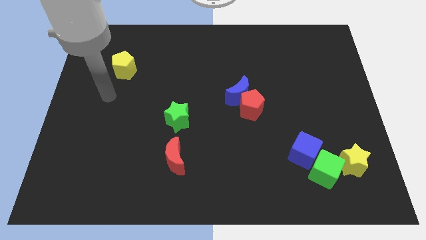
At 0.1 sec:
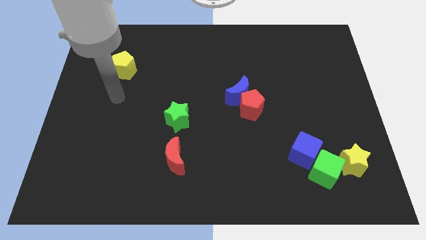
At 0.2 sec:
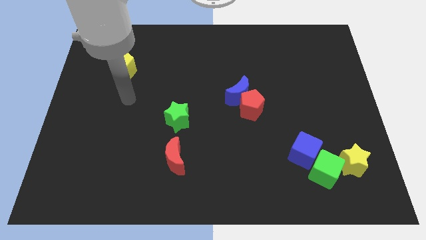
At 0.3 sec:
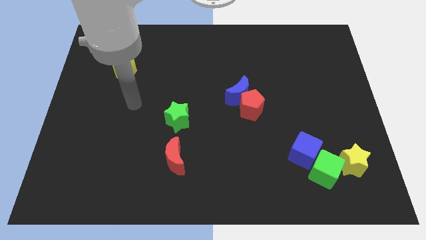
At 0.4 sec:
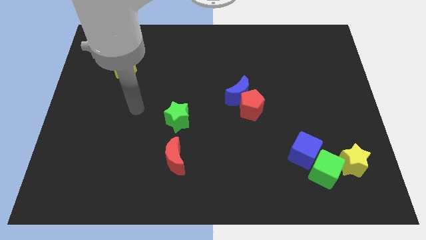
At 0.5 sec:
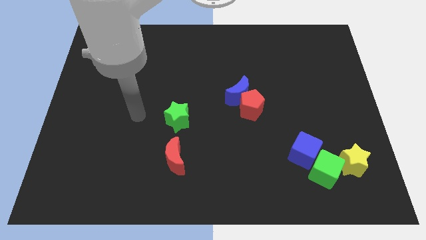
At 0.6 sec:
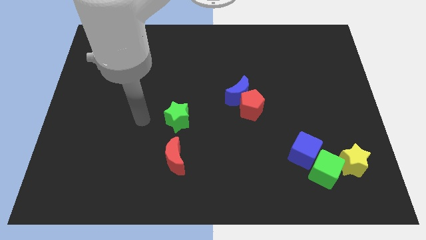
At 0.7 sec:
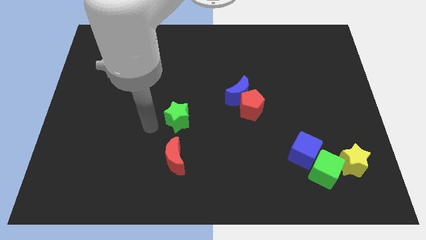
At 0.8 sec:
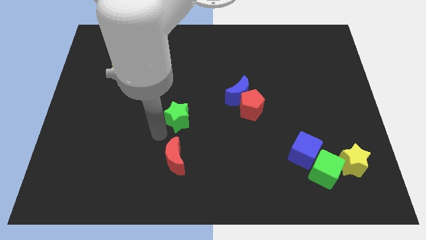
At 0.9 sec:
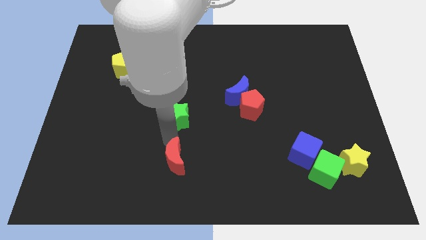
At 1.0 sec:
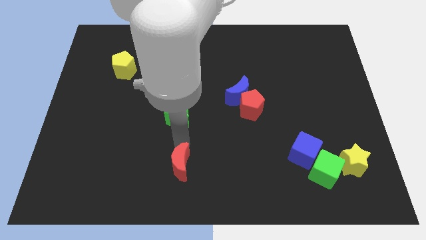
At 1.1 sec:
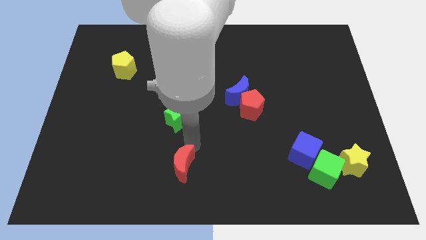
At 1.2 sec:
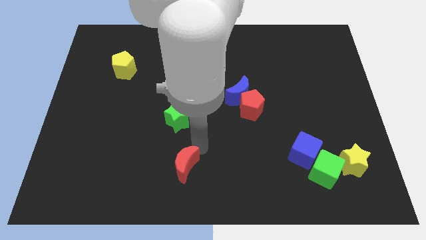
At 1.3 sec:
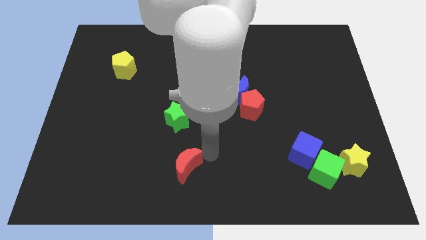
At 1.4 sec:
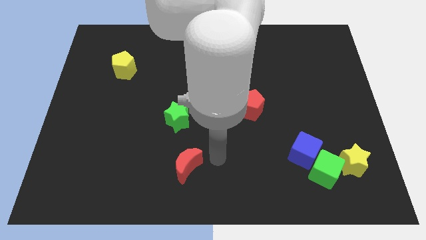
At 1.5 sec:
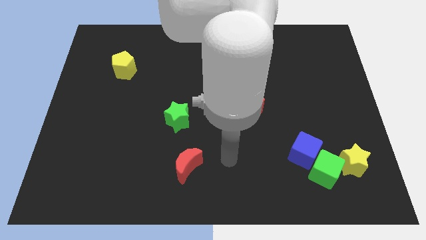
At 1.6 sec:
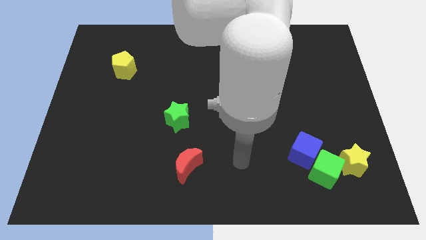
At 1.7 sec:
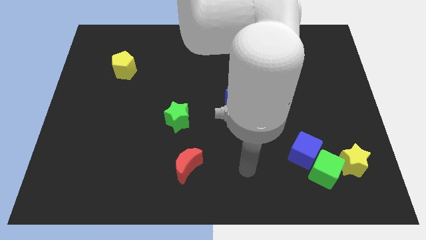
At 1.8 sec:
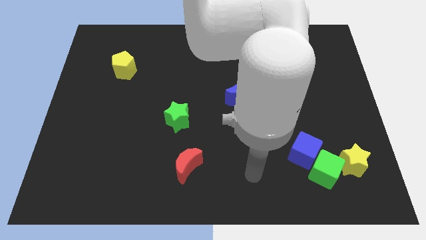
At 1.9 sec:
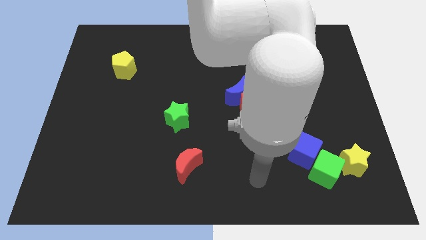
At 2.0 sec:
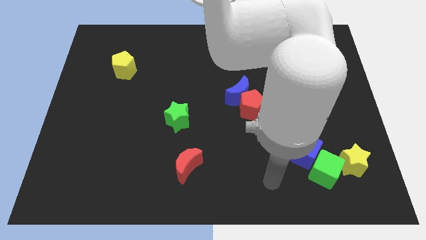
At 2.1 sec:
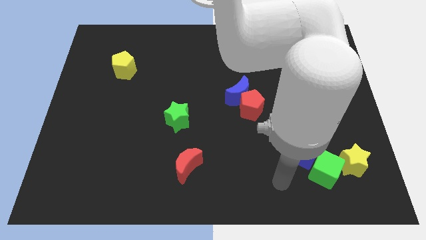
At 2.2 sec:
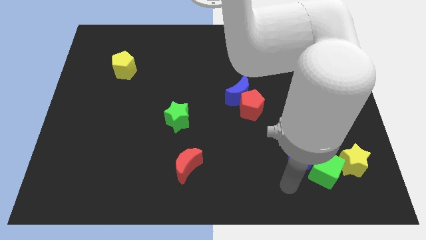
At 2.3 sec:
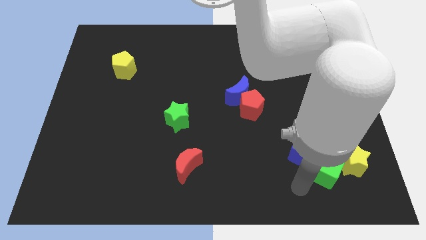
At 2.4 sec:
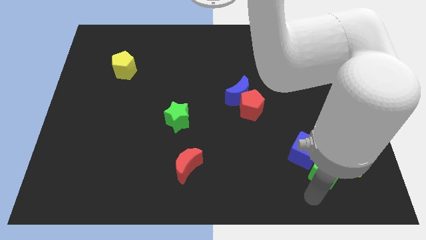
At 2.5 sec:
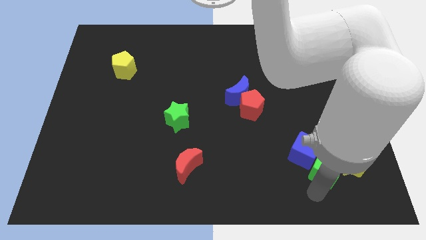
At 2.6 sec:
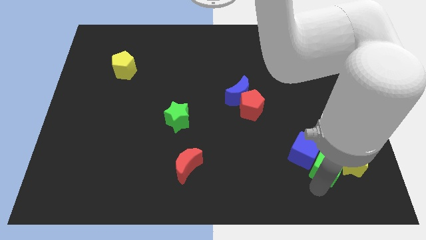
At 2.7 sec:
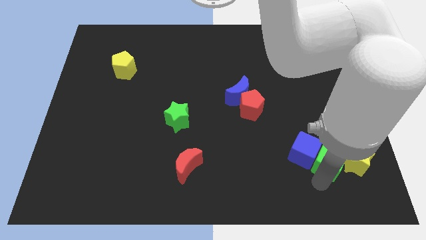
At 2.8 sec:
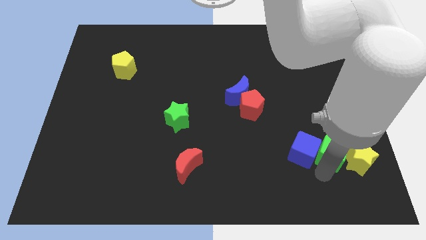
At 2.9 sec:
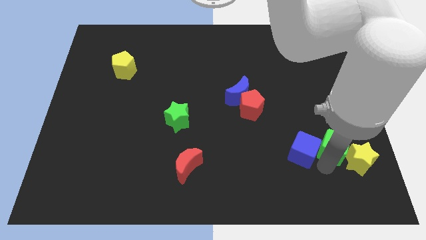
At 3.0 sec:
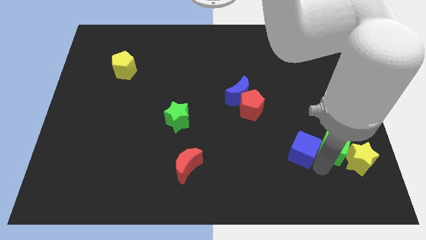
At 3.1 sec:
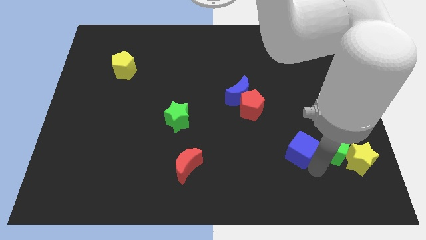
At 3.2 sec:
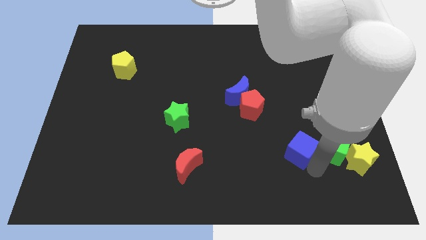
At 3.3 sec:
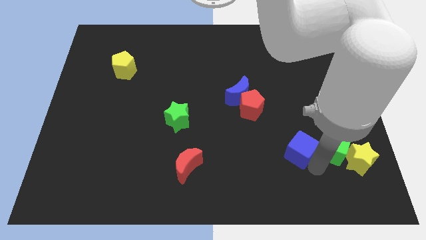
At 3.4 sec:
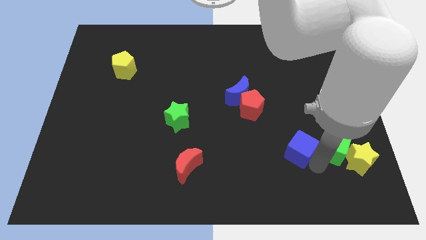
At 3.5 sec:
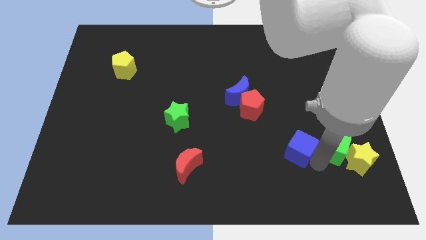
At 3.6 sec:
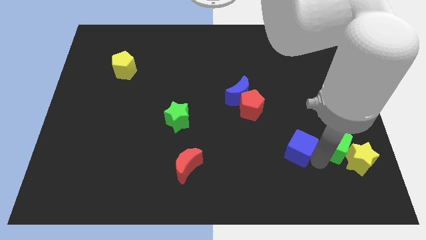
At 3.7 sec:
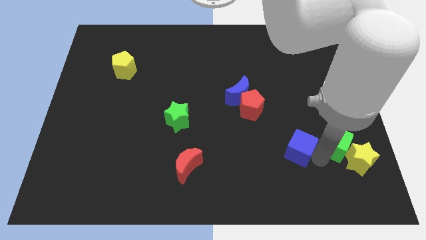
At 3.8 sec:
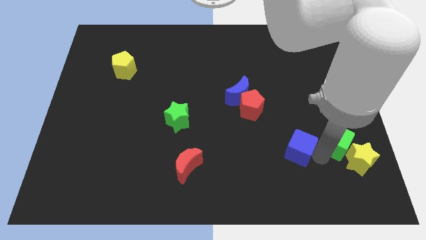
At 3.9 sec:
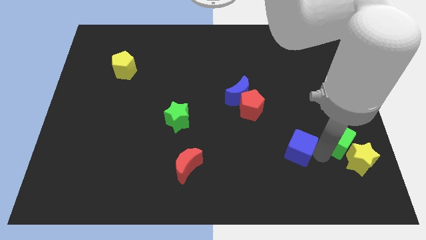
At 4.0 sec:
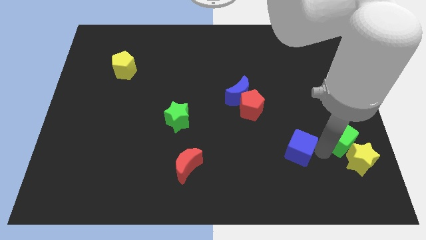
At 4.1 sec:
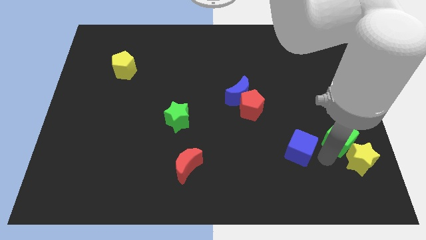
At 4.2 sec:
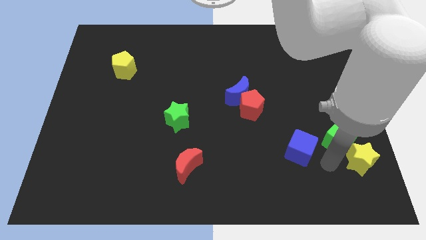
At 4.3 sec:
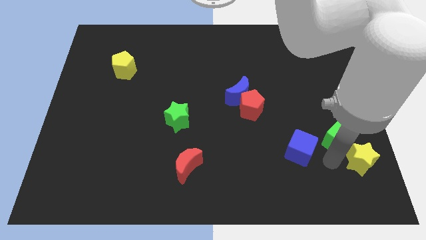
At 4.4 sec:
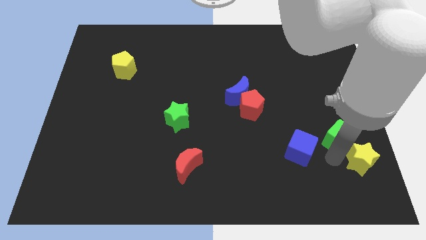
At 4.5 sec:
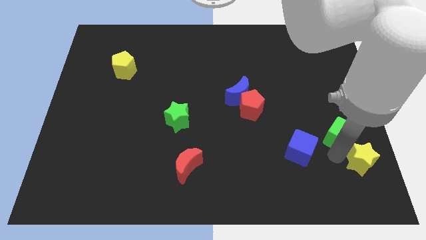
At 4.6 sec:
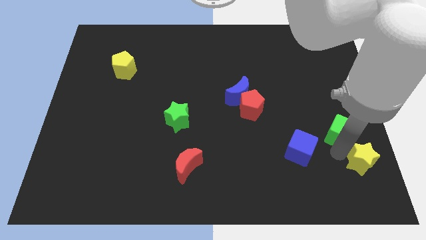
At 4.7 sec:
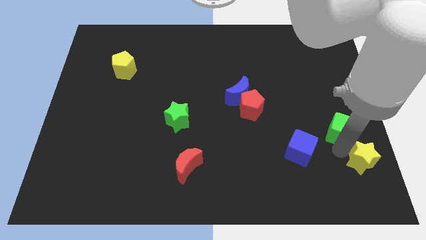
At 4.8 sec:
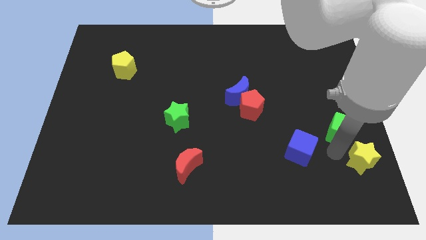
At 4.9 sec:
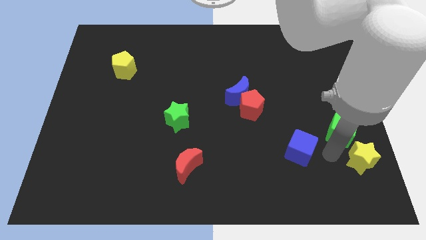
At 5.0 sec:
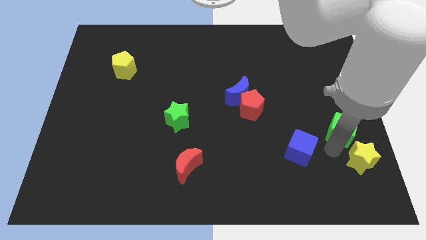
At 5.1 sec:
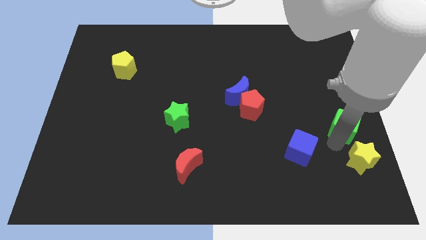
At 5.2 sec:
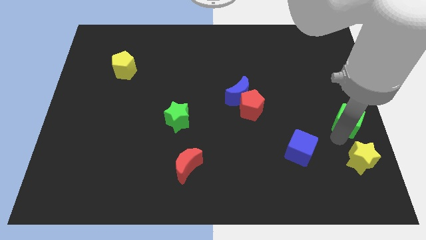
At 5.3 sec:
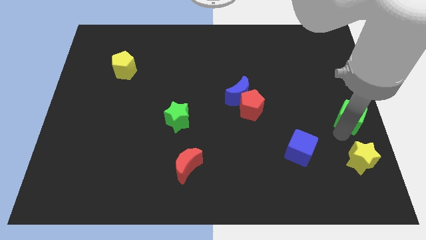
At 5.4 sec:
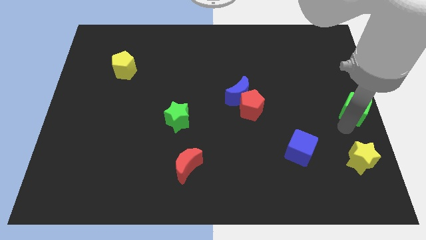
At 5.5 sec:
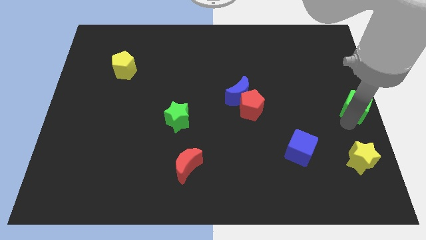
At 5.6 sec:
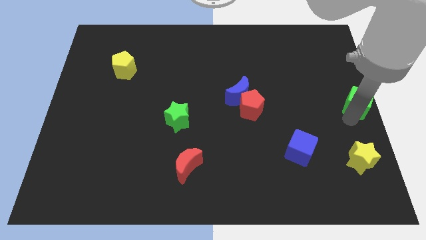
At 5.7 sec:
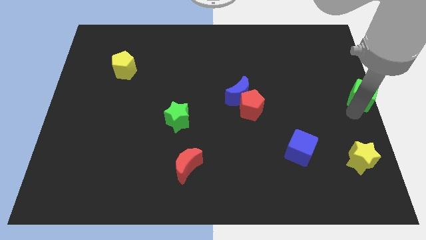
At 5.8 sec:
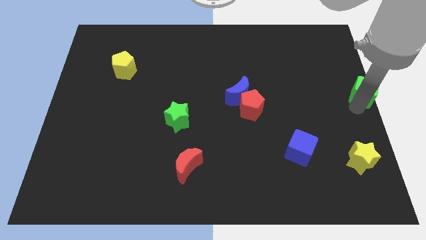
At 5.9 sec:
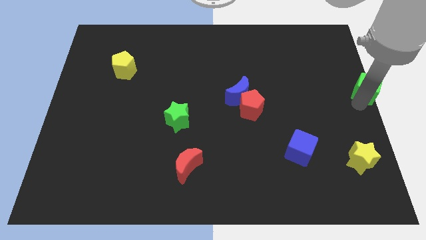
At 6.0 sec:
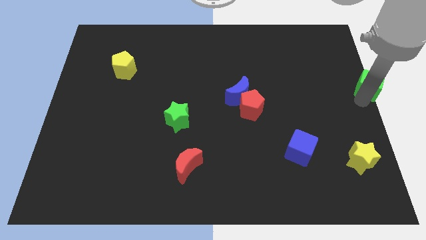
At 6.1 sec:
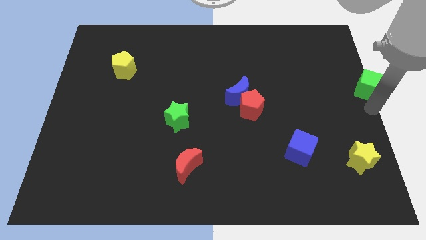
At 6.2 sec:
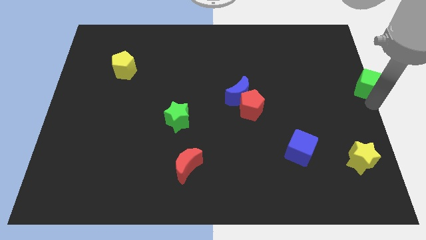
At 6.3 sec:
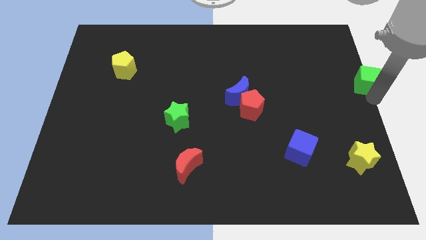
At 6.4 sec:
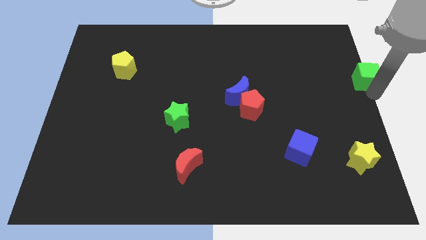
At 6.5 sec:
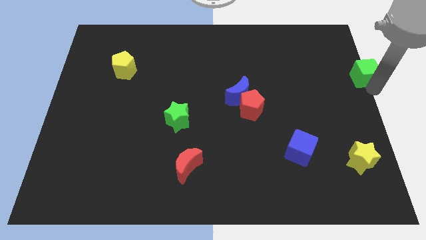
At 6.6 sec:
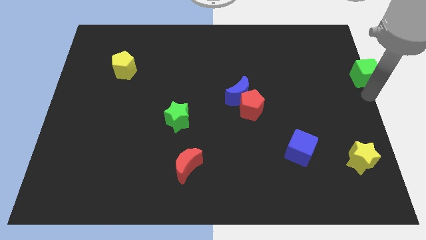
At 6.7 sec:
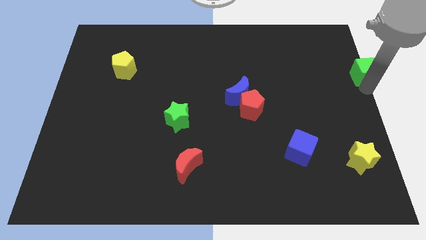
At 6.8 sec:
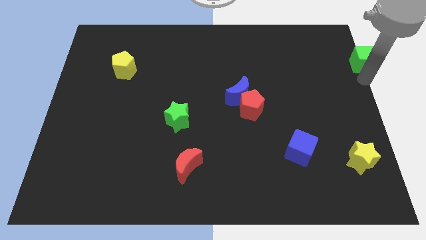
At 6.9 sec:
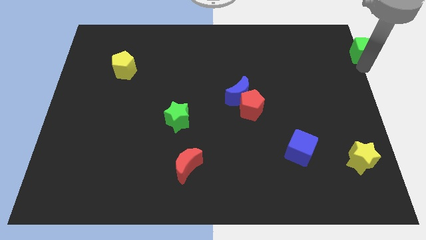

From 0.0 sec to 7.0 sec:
put the green cube to the upper right corner
